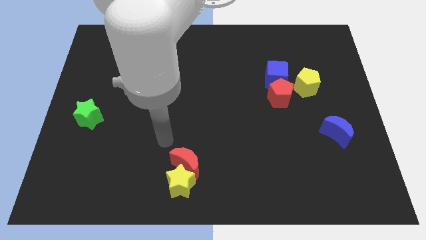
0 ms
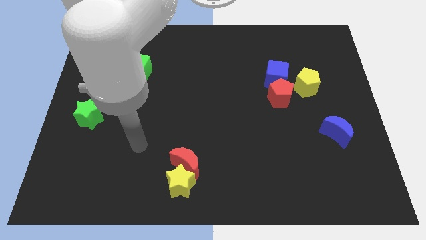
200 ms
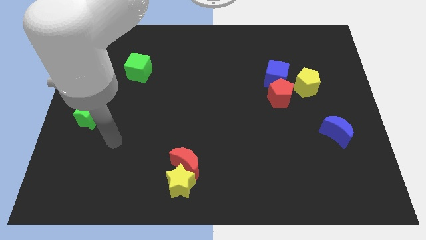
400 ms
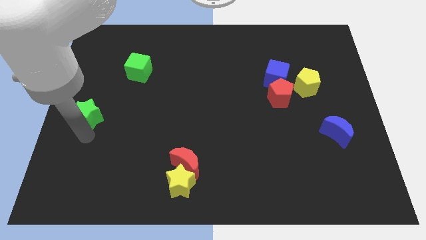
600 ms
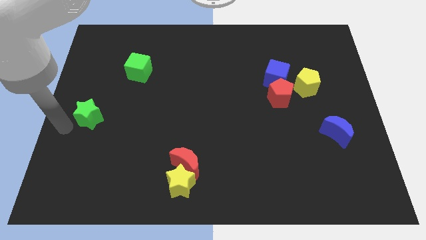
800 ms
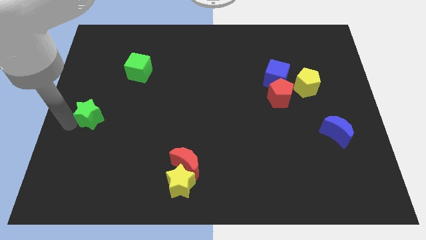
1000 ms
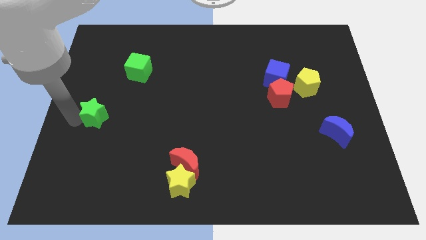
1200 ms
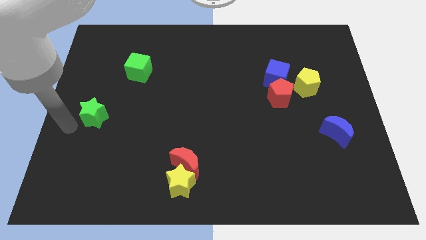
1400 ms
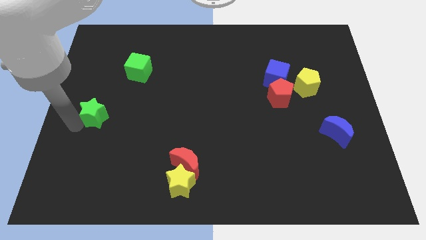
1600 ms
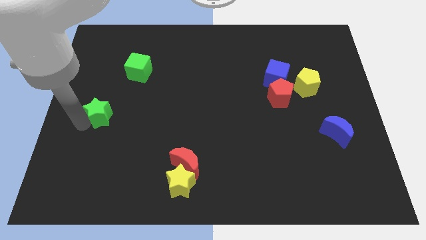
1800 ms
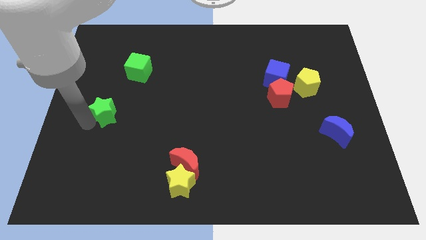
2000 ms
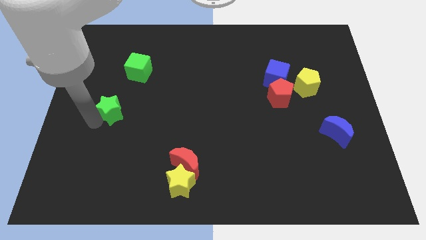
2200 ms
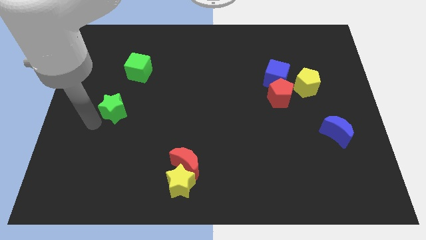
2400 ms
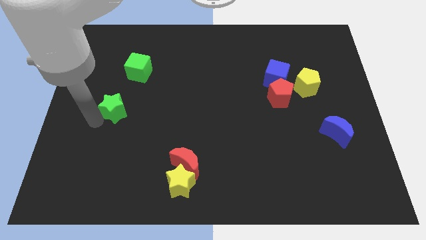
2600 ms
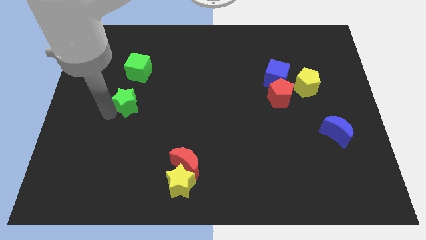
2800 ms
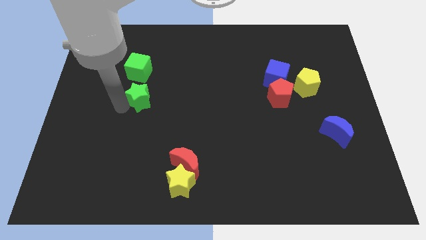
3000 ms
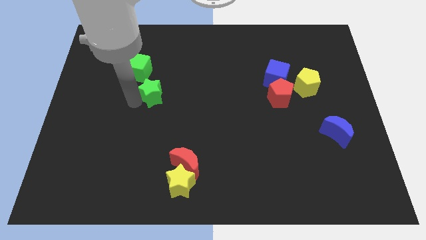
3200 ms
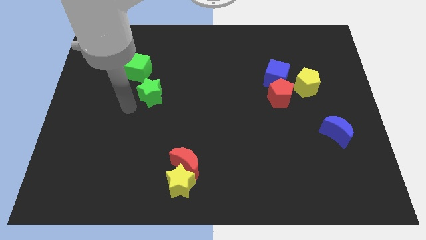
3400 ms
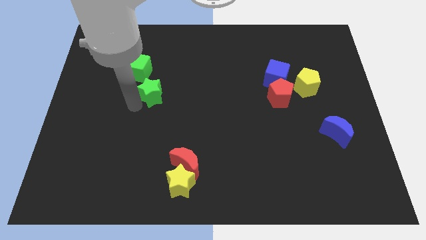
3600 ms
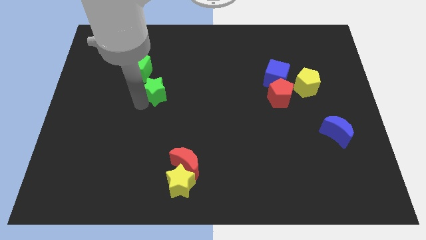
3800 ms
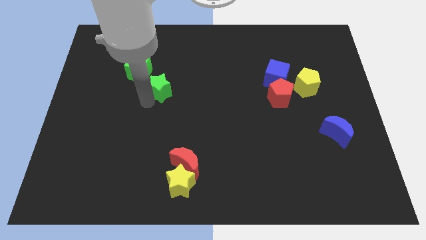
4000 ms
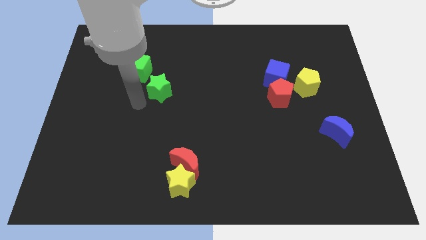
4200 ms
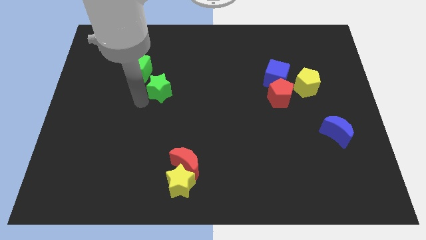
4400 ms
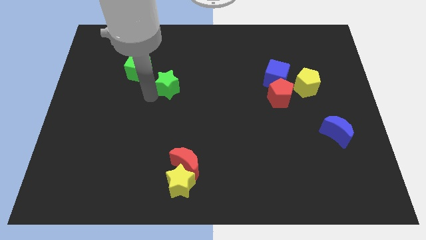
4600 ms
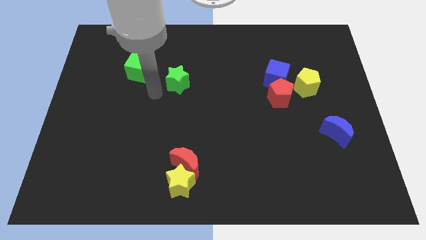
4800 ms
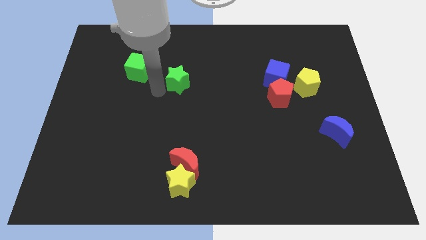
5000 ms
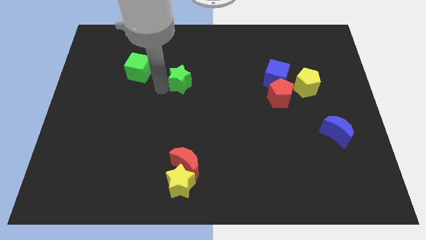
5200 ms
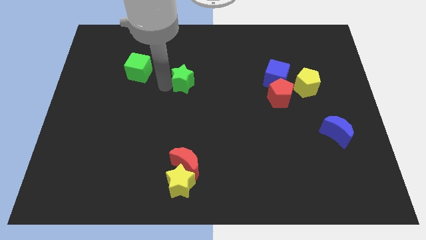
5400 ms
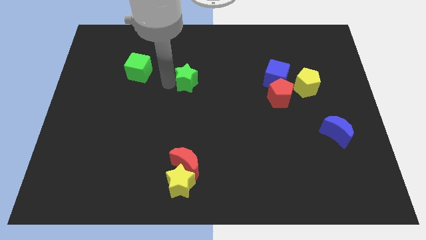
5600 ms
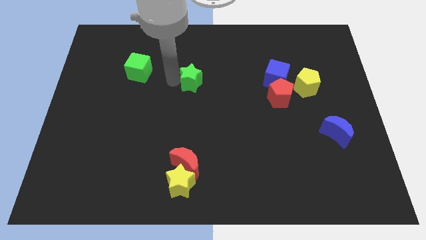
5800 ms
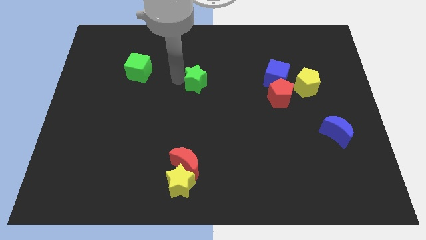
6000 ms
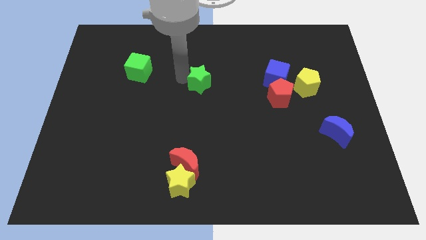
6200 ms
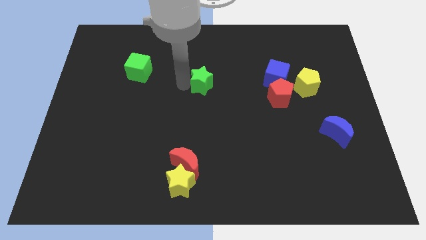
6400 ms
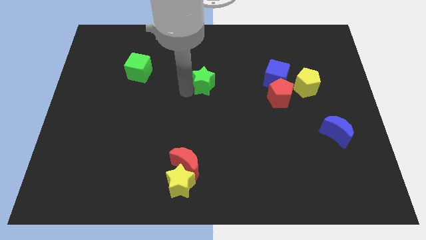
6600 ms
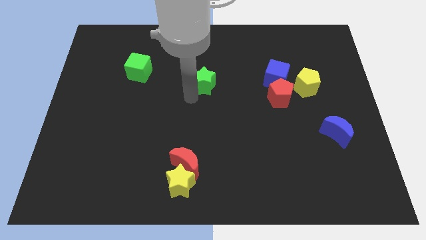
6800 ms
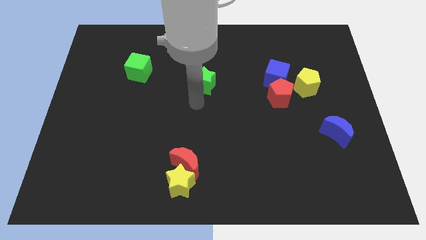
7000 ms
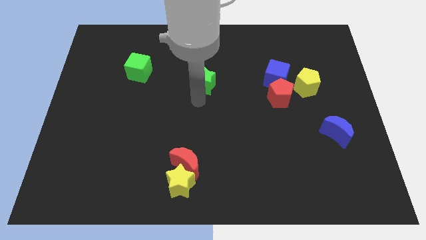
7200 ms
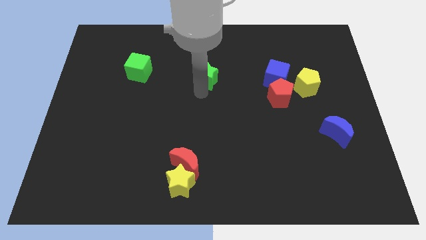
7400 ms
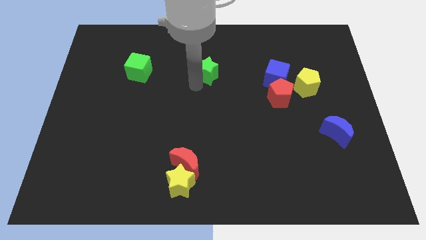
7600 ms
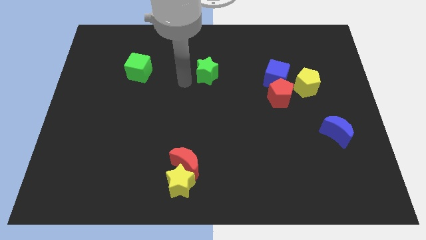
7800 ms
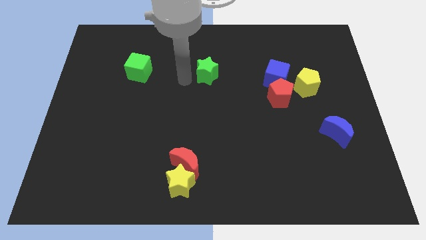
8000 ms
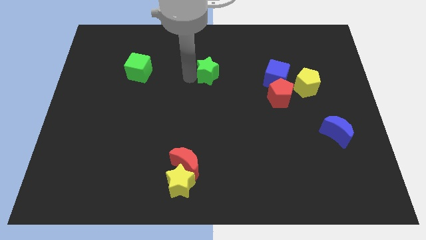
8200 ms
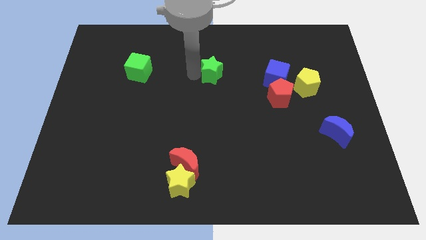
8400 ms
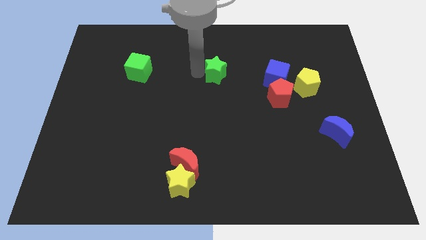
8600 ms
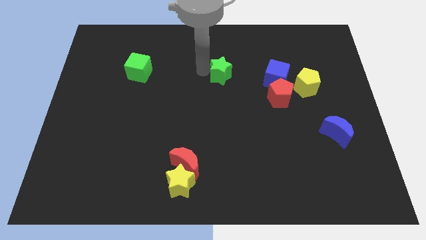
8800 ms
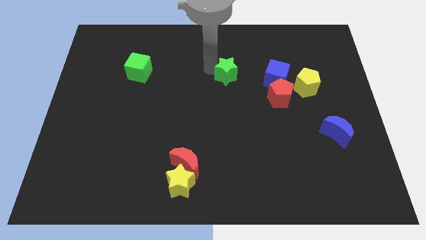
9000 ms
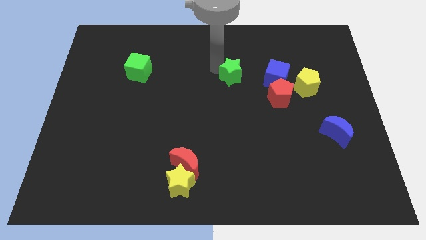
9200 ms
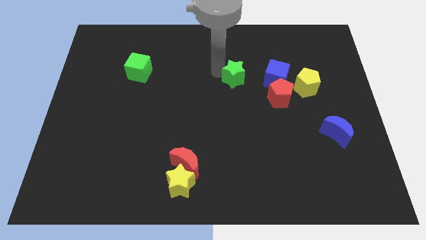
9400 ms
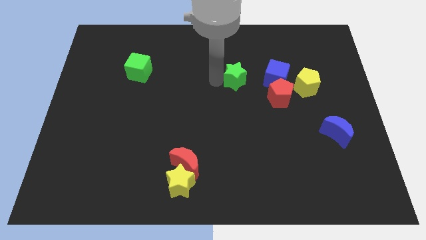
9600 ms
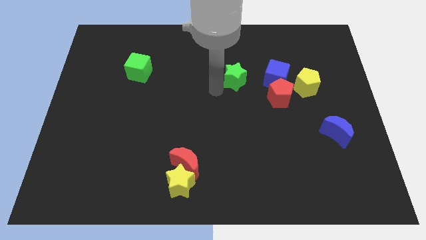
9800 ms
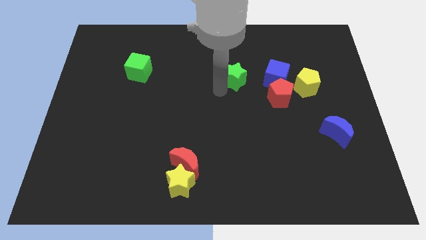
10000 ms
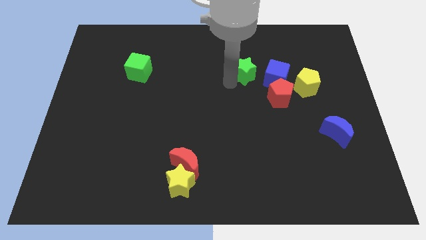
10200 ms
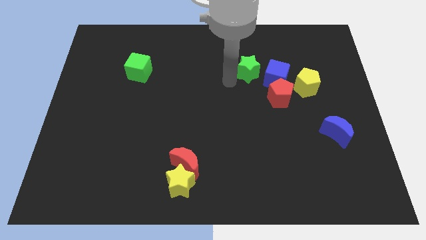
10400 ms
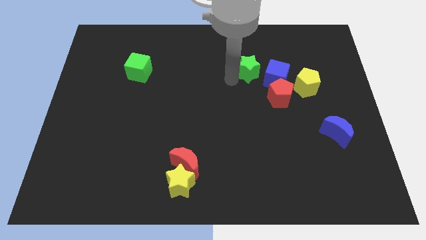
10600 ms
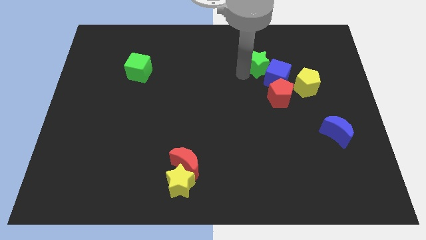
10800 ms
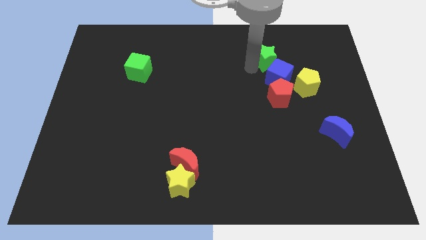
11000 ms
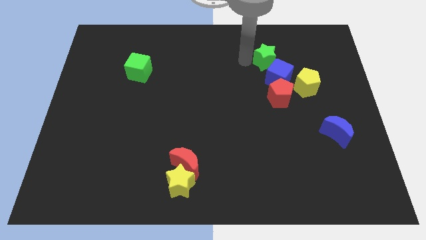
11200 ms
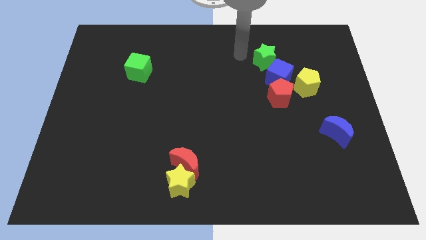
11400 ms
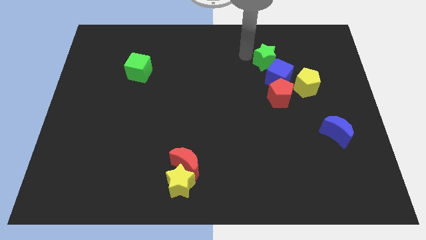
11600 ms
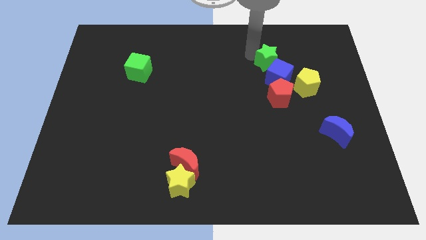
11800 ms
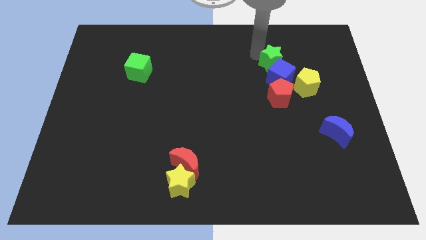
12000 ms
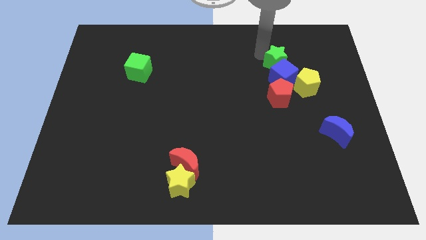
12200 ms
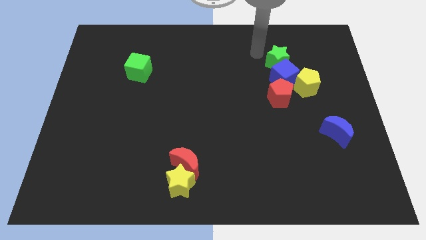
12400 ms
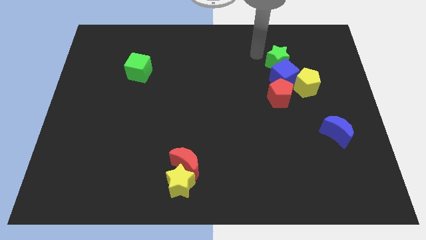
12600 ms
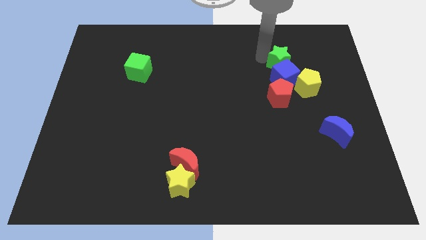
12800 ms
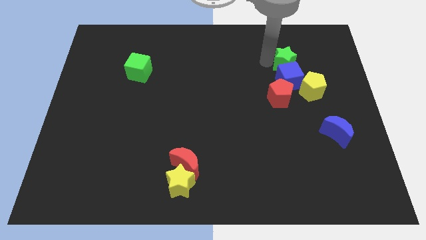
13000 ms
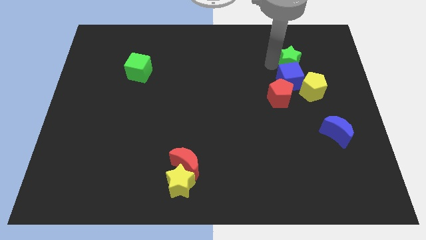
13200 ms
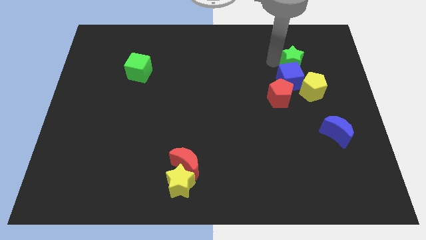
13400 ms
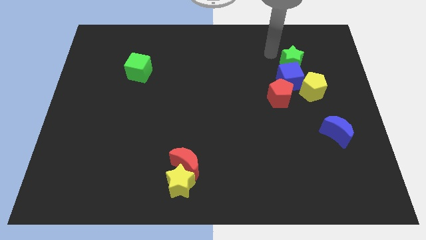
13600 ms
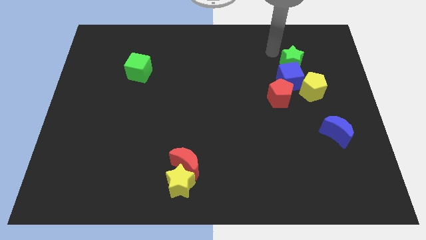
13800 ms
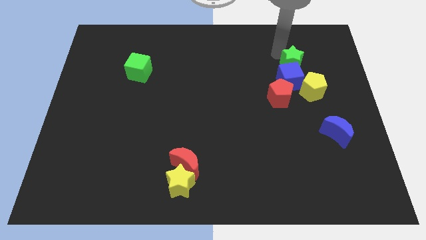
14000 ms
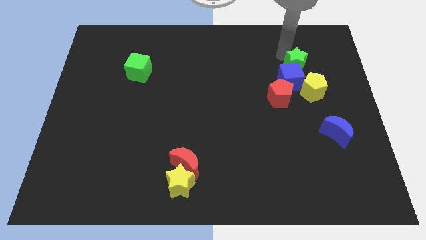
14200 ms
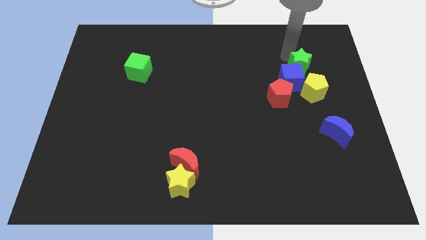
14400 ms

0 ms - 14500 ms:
move the green star to the top right side of the red pentagon
